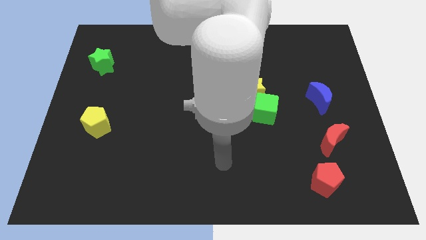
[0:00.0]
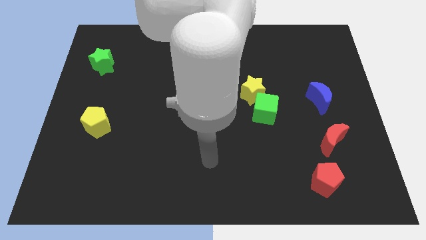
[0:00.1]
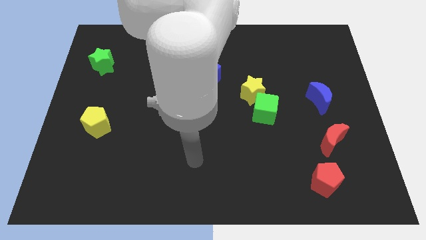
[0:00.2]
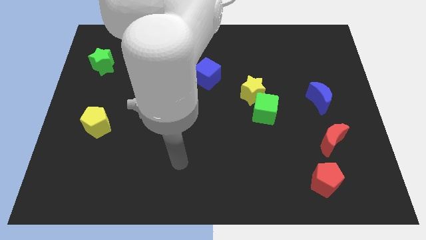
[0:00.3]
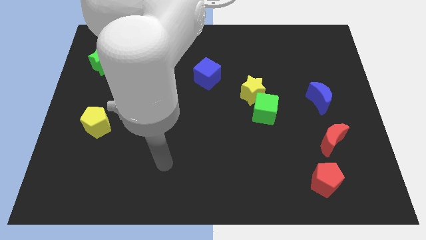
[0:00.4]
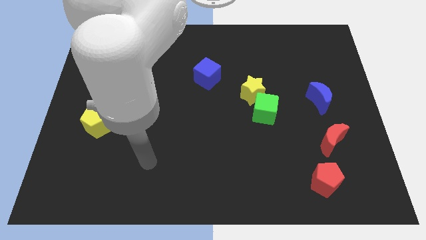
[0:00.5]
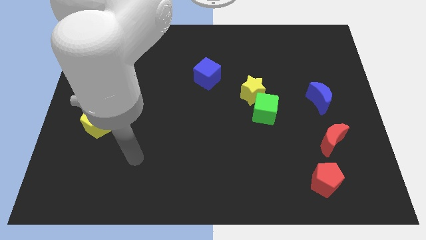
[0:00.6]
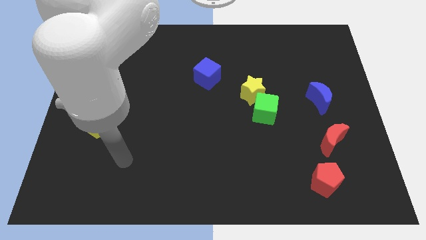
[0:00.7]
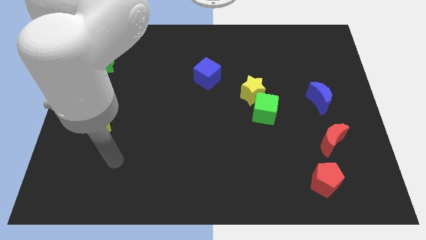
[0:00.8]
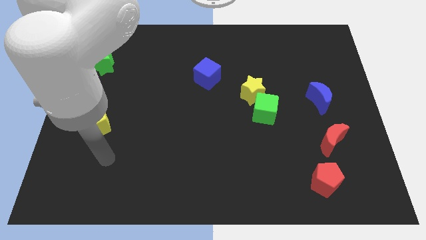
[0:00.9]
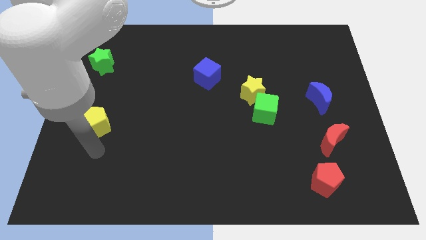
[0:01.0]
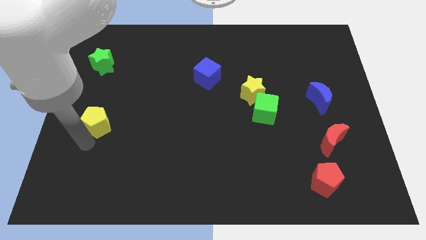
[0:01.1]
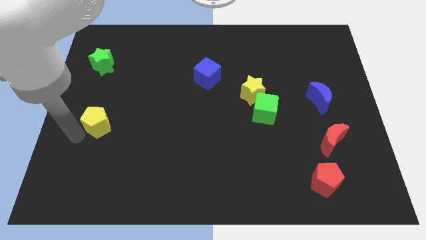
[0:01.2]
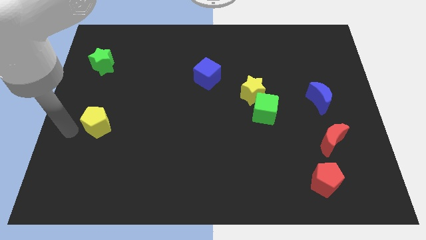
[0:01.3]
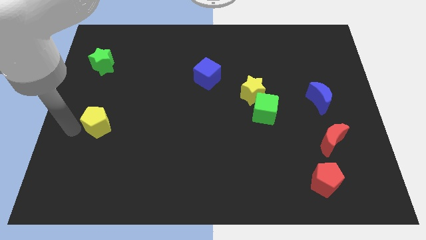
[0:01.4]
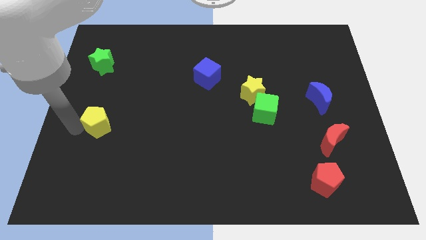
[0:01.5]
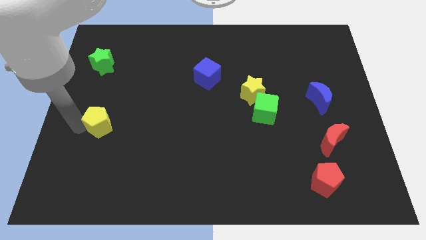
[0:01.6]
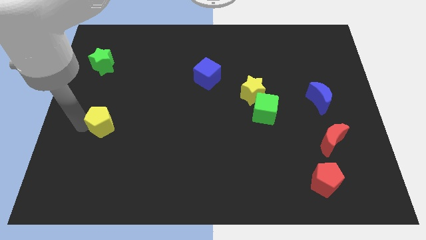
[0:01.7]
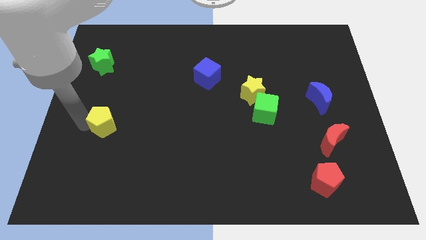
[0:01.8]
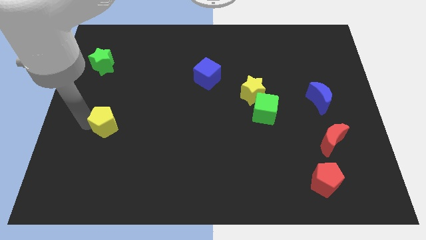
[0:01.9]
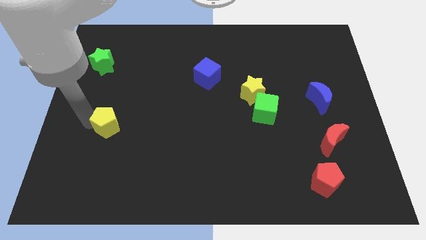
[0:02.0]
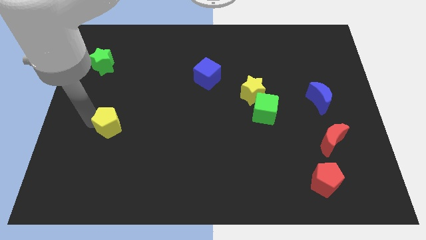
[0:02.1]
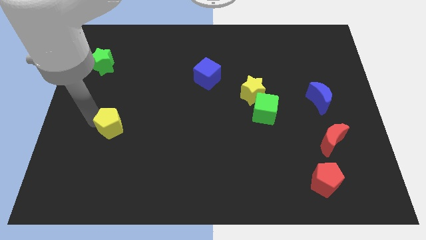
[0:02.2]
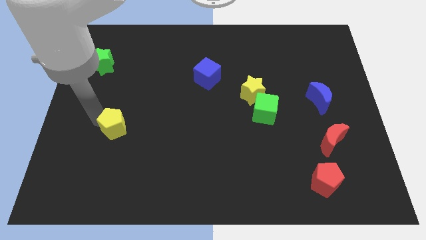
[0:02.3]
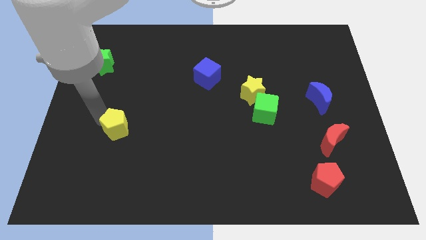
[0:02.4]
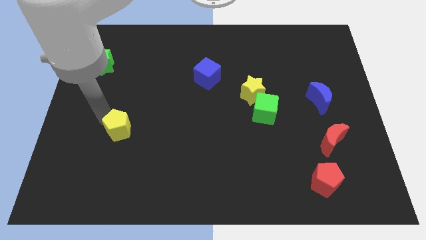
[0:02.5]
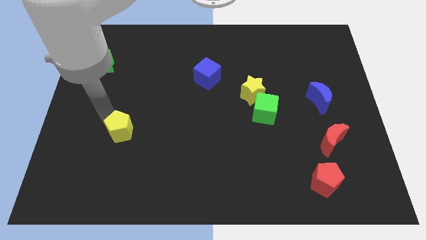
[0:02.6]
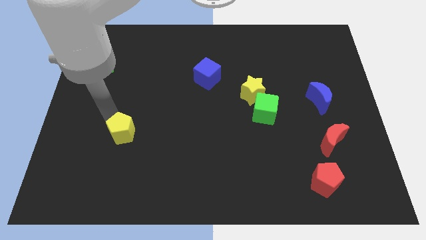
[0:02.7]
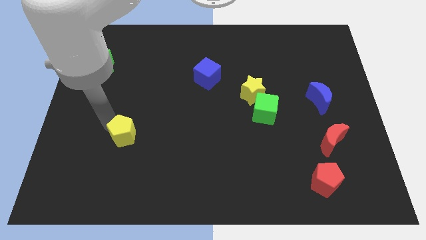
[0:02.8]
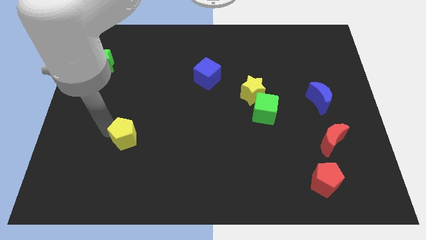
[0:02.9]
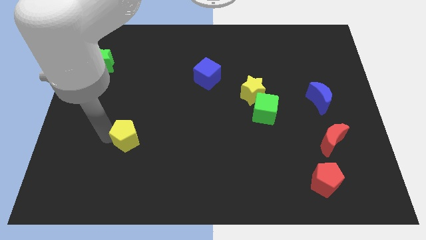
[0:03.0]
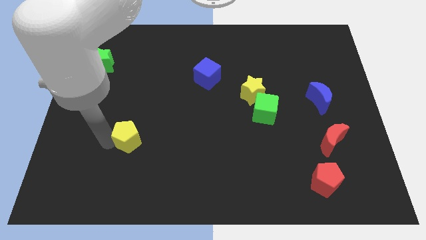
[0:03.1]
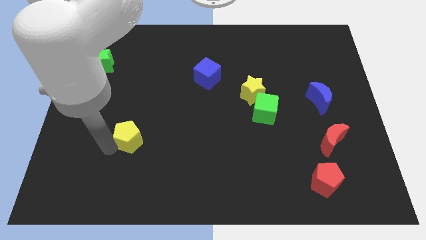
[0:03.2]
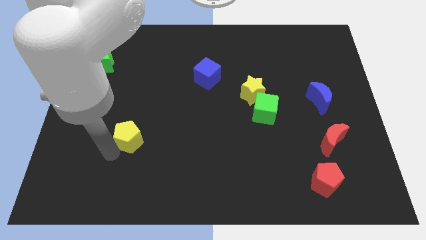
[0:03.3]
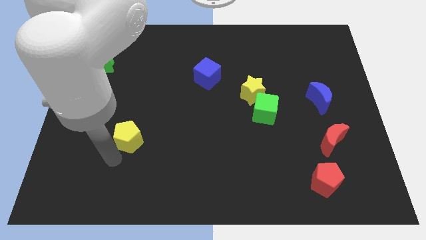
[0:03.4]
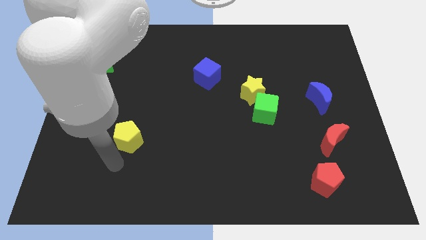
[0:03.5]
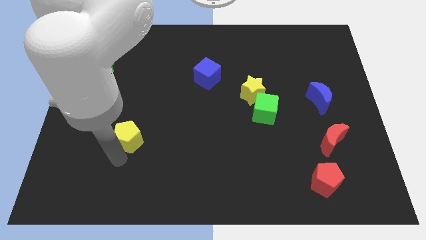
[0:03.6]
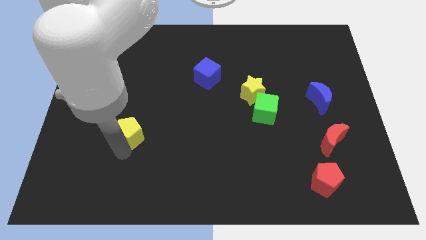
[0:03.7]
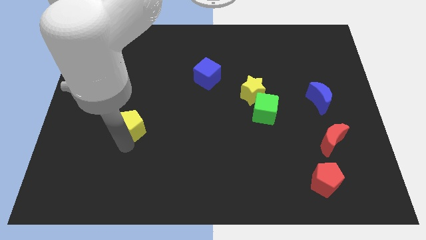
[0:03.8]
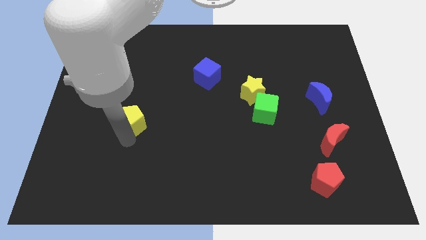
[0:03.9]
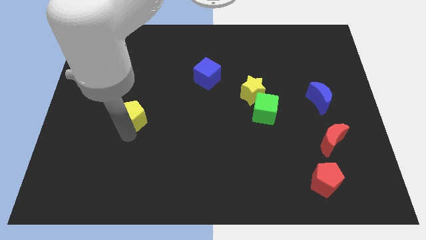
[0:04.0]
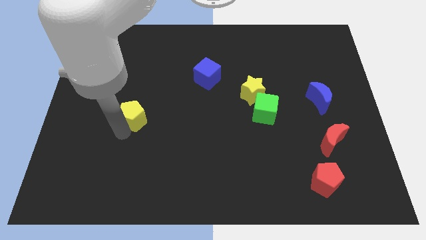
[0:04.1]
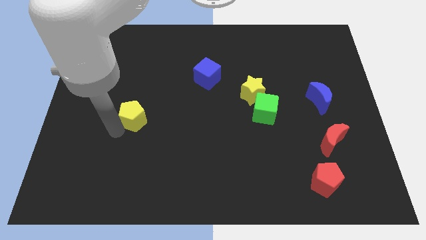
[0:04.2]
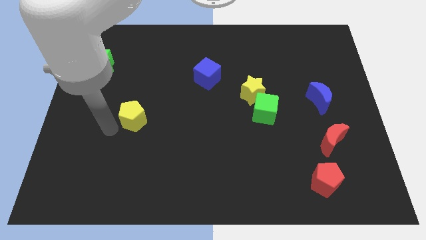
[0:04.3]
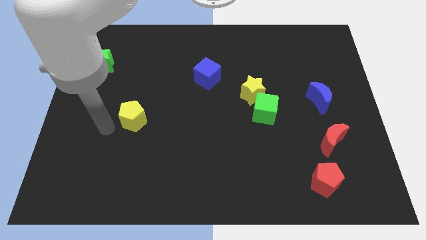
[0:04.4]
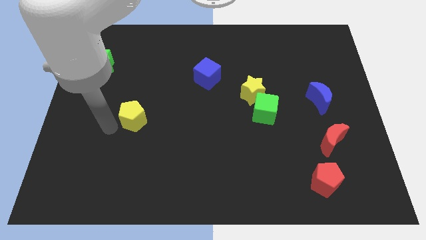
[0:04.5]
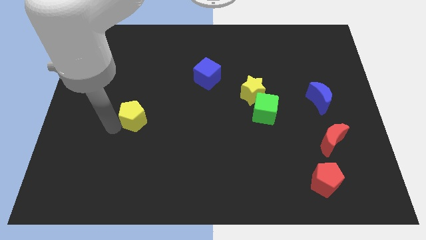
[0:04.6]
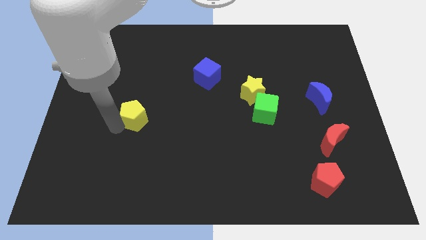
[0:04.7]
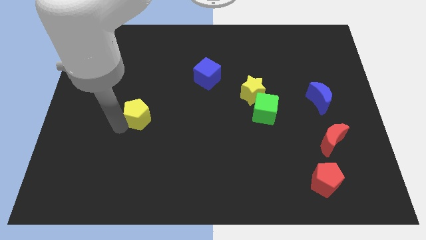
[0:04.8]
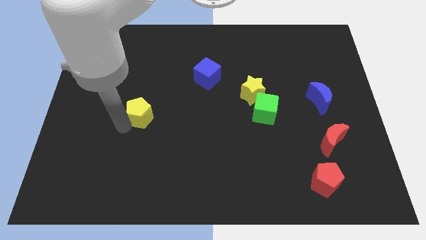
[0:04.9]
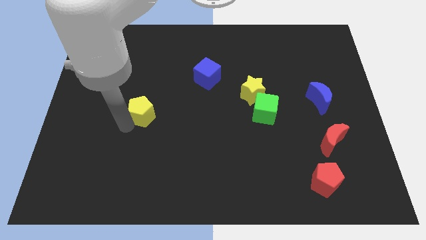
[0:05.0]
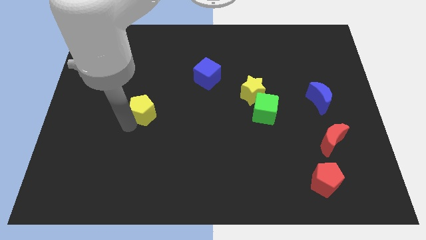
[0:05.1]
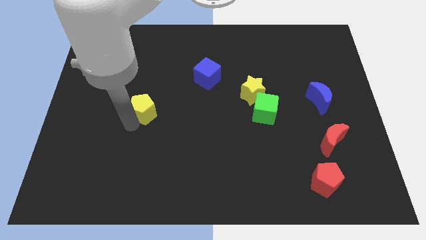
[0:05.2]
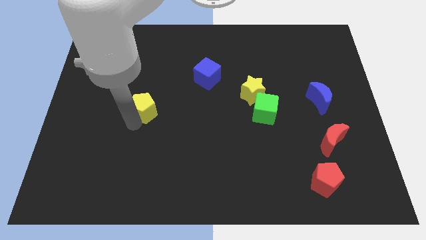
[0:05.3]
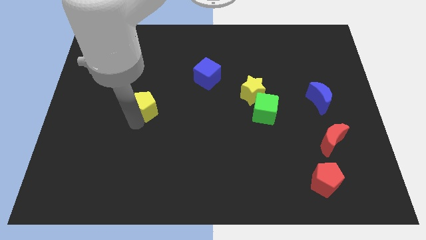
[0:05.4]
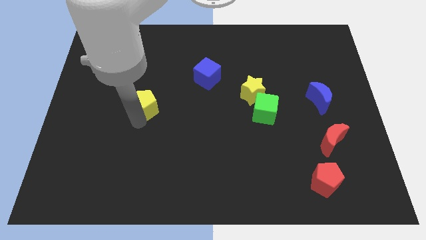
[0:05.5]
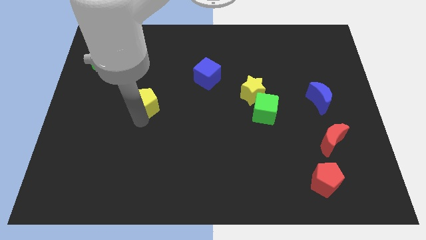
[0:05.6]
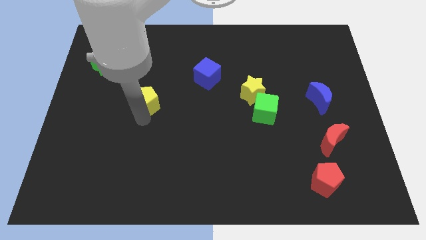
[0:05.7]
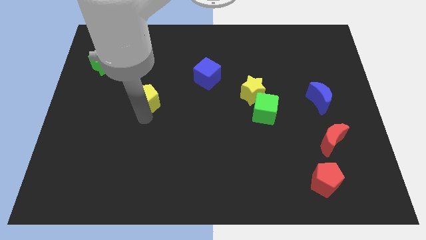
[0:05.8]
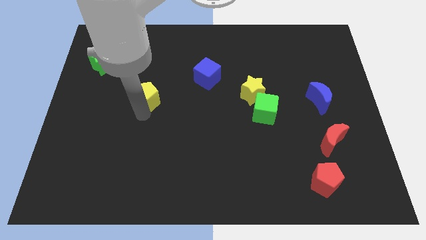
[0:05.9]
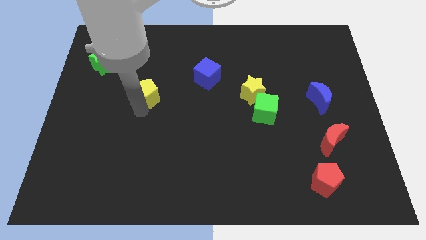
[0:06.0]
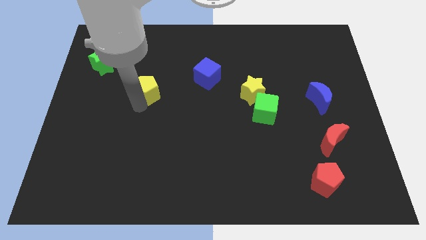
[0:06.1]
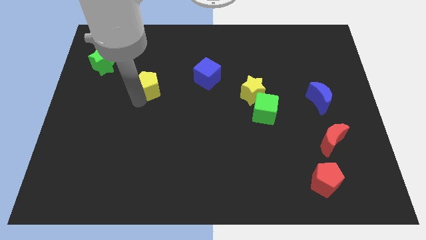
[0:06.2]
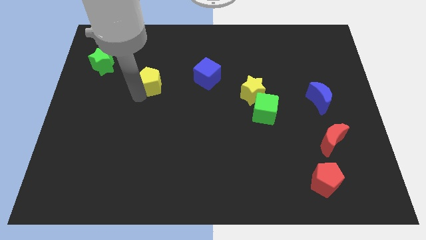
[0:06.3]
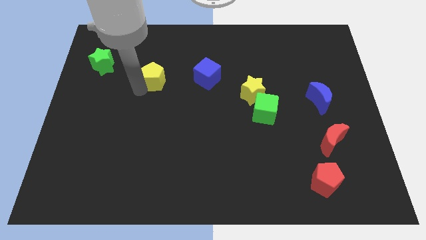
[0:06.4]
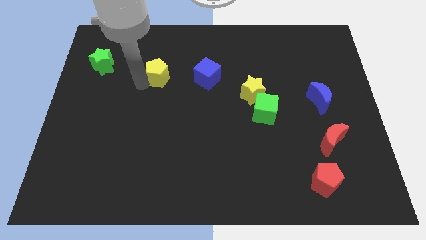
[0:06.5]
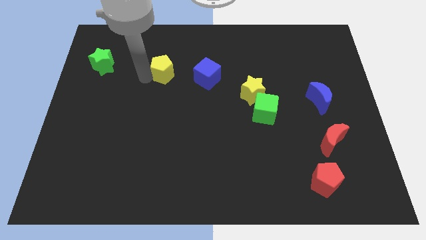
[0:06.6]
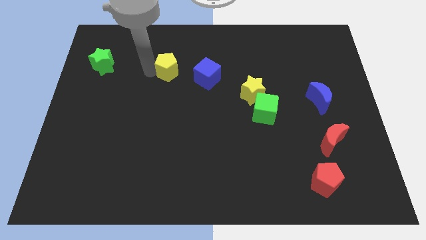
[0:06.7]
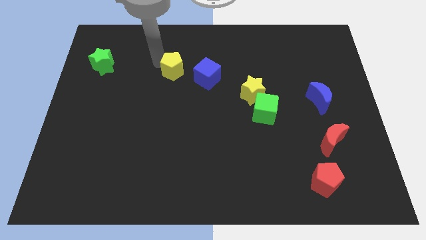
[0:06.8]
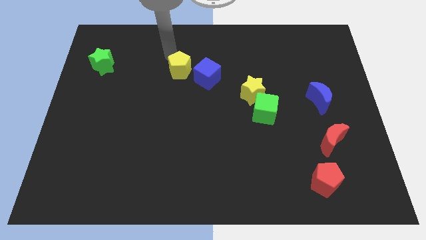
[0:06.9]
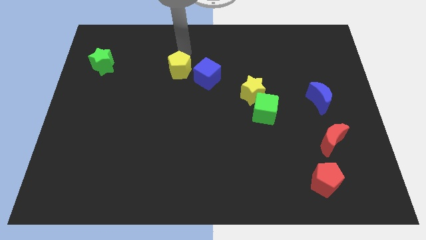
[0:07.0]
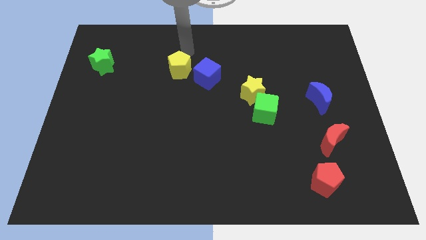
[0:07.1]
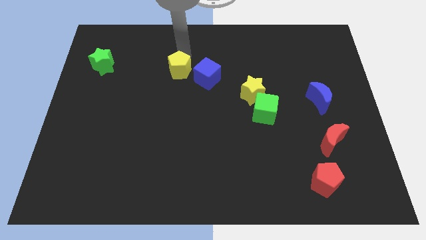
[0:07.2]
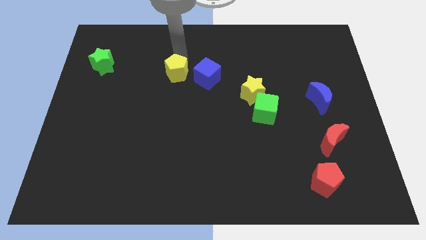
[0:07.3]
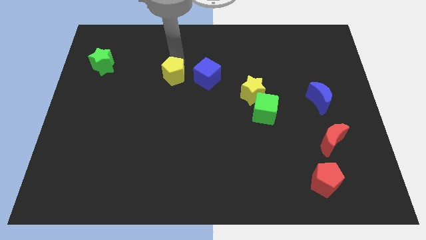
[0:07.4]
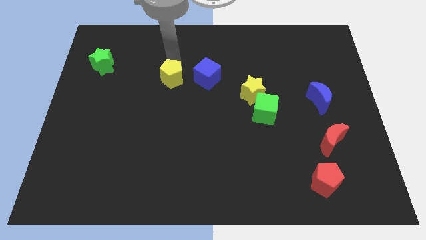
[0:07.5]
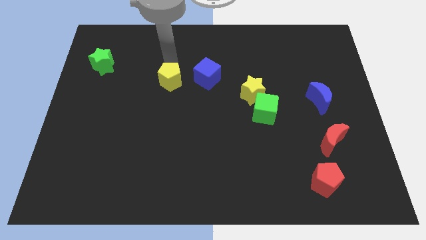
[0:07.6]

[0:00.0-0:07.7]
move the yellow pentagon to the center
